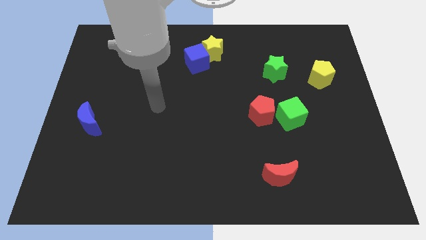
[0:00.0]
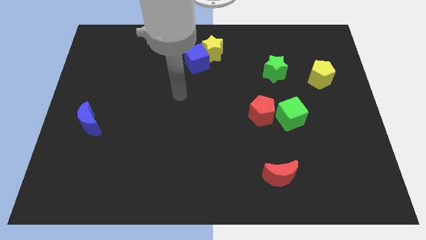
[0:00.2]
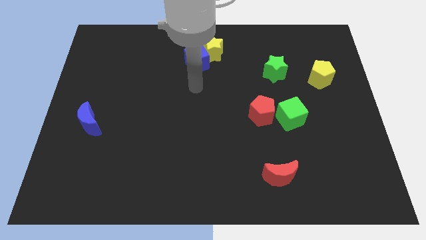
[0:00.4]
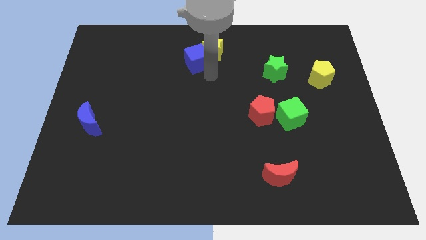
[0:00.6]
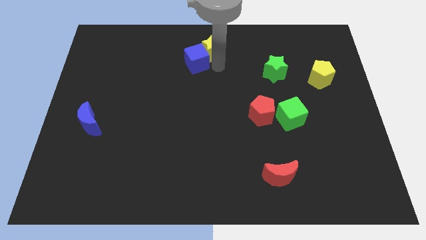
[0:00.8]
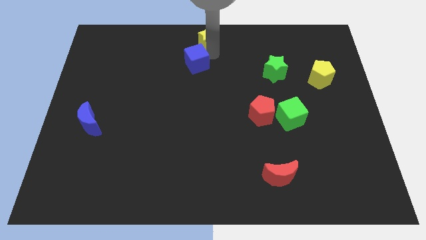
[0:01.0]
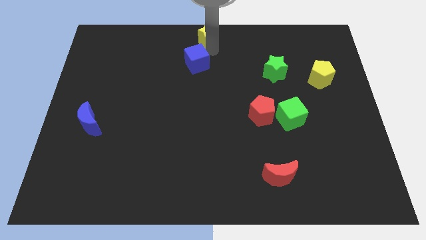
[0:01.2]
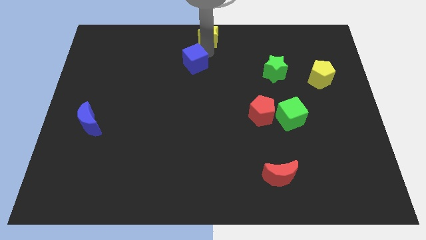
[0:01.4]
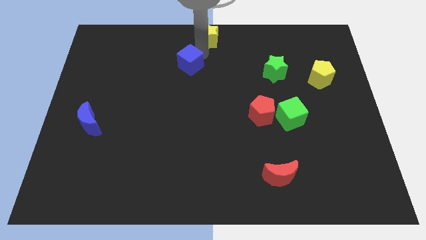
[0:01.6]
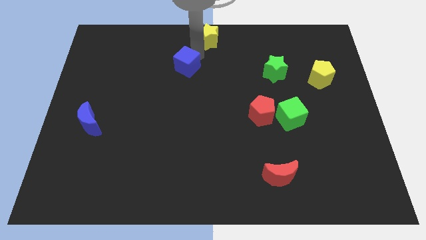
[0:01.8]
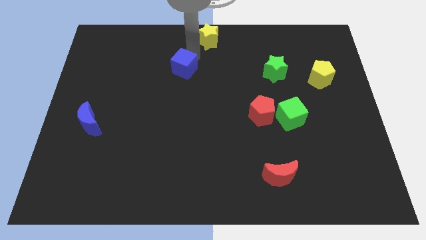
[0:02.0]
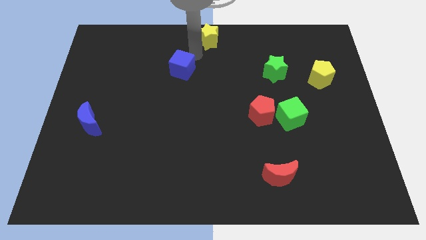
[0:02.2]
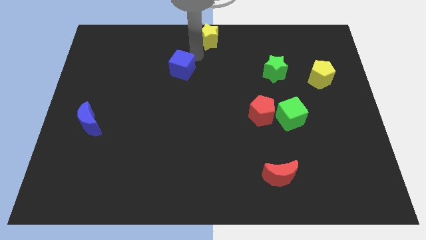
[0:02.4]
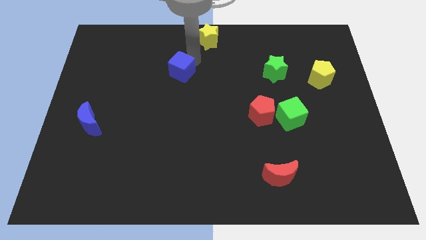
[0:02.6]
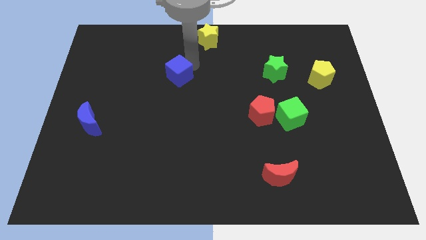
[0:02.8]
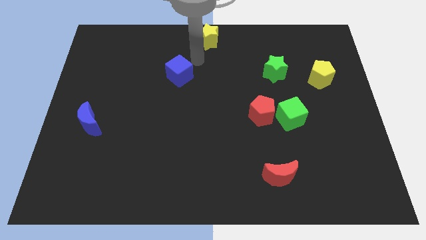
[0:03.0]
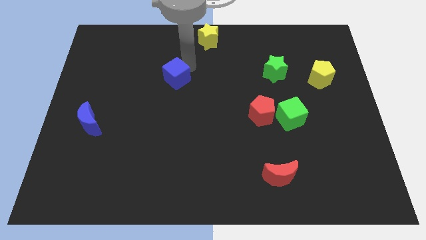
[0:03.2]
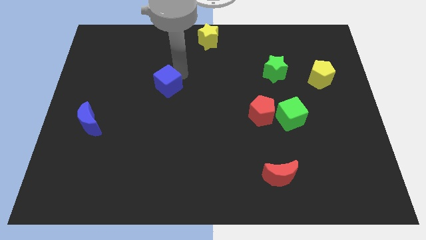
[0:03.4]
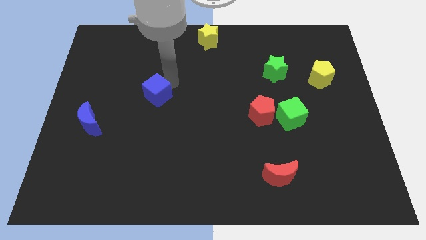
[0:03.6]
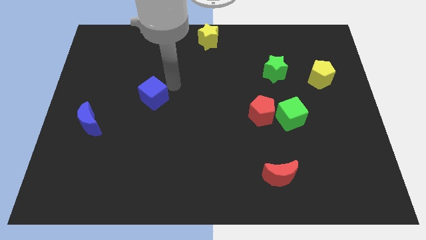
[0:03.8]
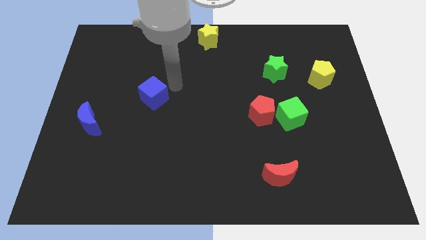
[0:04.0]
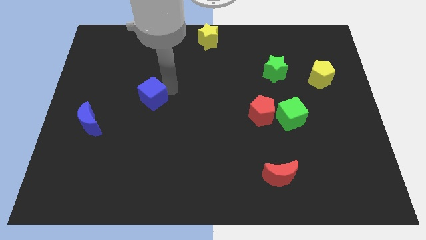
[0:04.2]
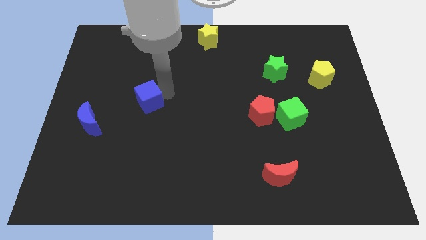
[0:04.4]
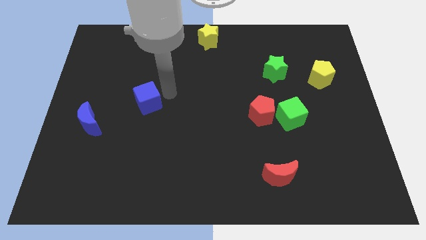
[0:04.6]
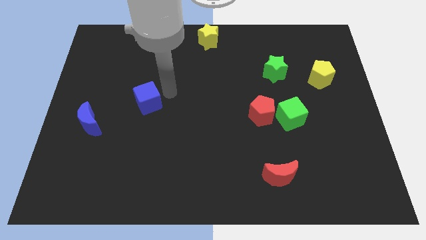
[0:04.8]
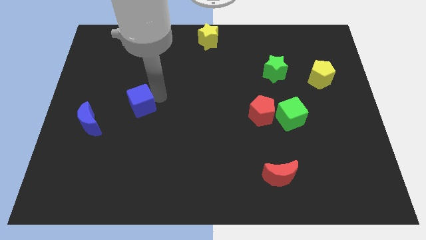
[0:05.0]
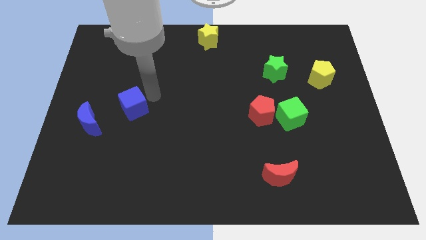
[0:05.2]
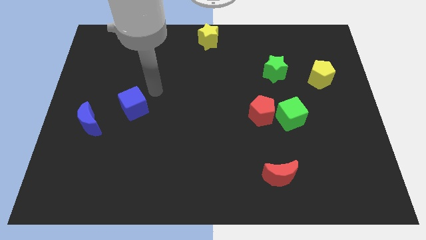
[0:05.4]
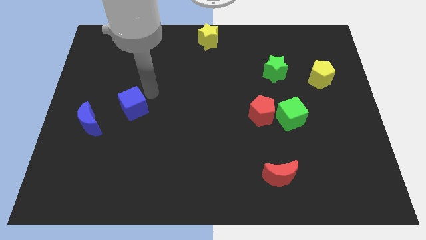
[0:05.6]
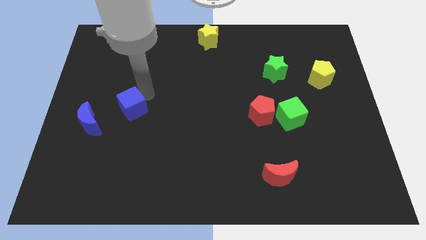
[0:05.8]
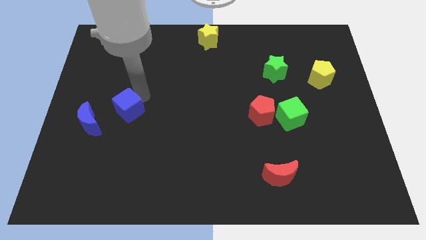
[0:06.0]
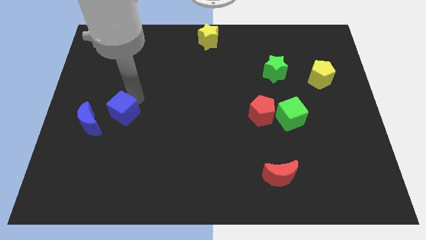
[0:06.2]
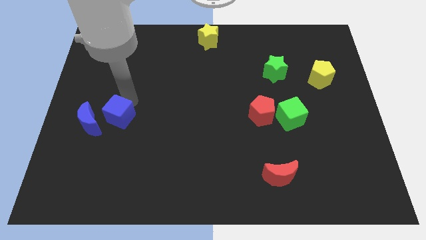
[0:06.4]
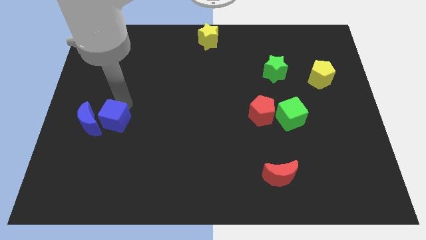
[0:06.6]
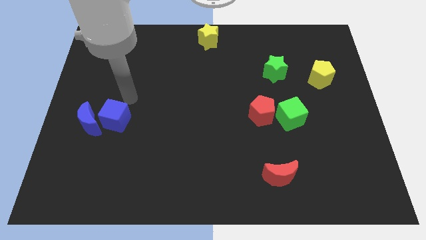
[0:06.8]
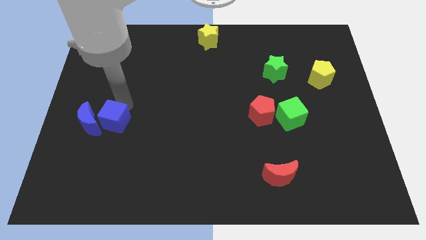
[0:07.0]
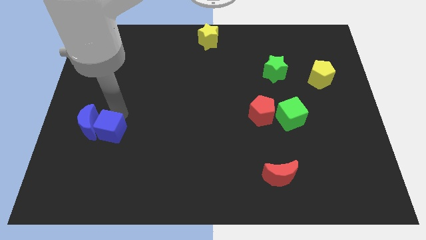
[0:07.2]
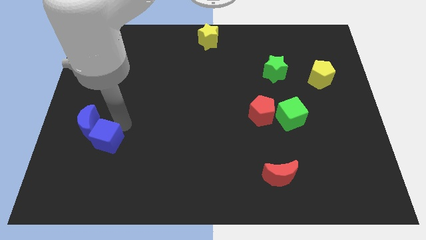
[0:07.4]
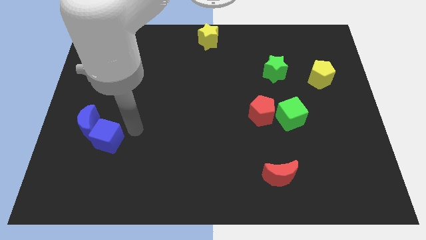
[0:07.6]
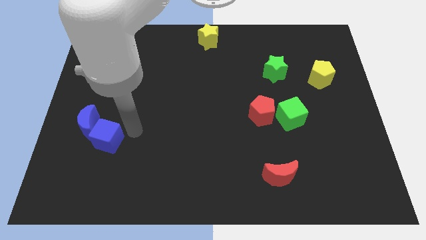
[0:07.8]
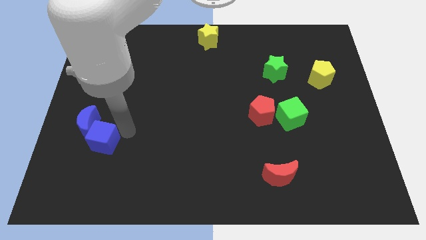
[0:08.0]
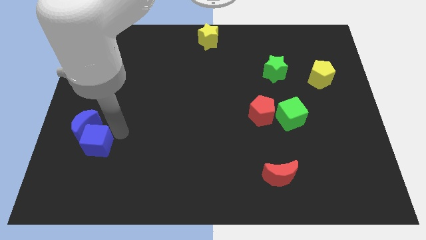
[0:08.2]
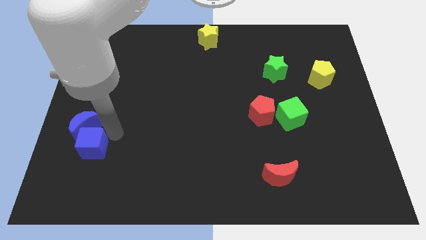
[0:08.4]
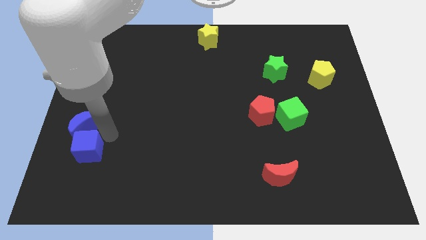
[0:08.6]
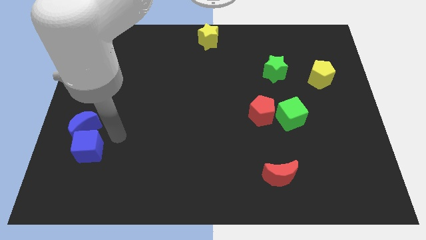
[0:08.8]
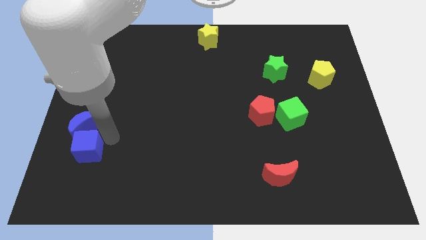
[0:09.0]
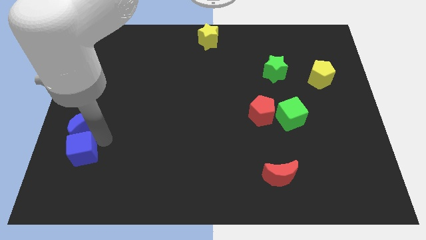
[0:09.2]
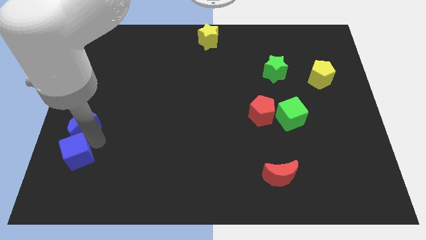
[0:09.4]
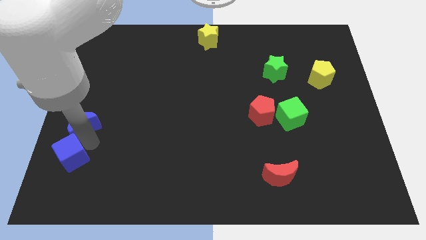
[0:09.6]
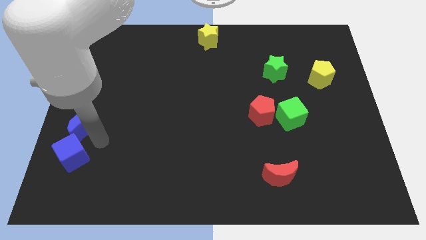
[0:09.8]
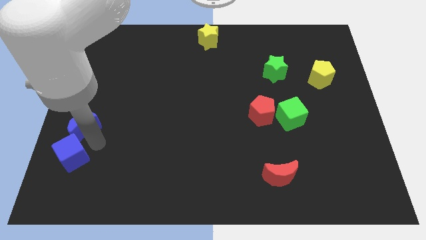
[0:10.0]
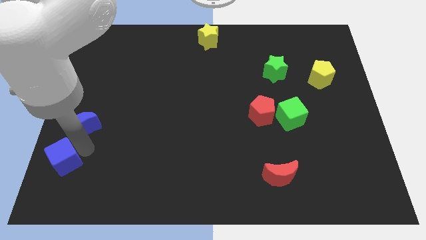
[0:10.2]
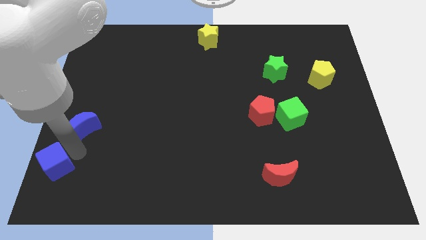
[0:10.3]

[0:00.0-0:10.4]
move the blue cube to the lower left corner
